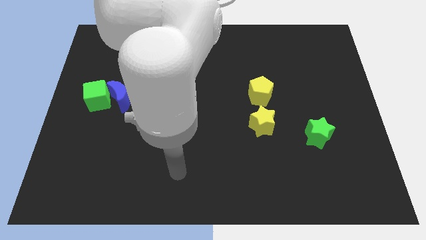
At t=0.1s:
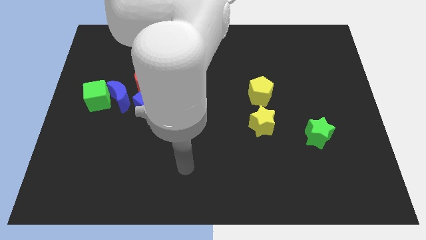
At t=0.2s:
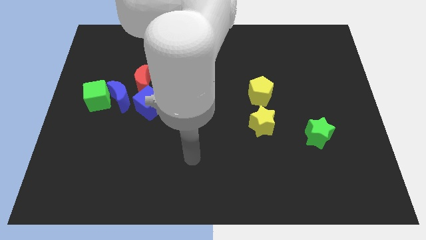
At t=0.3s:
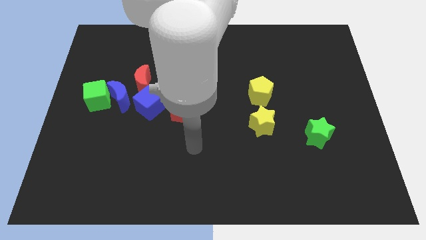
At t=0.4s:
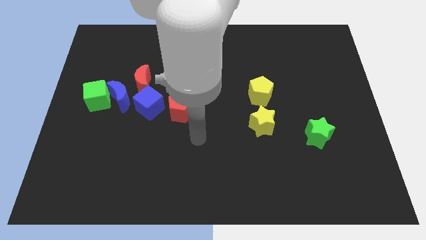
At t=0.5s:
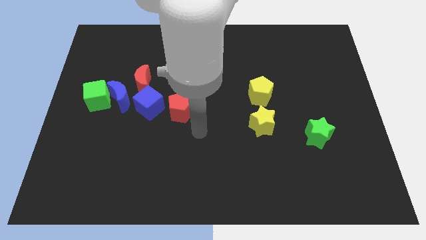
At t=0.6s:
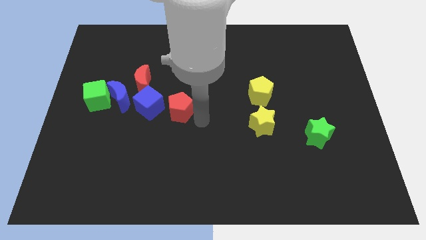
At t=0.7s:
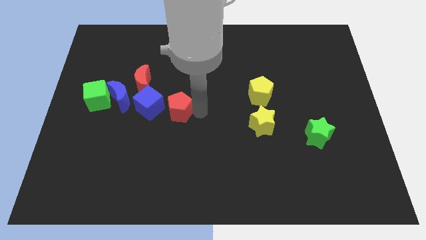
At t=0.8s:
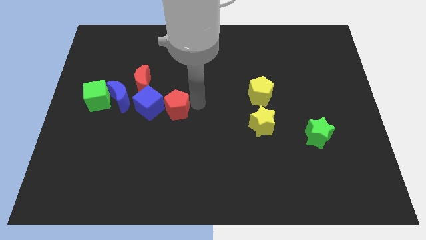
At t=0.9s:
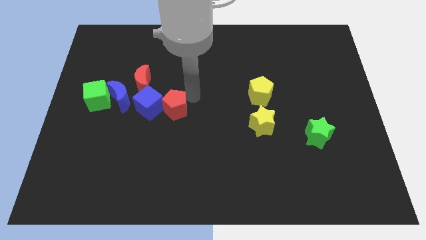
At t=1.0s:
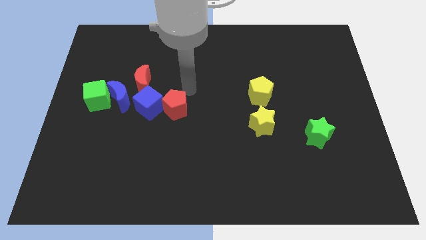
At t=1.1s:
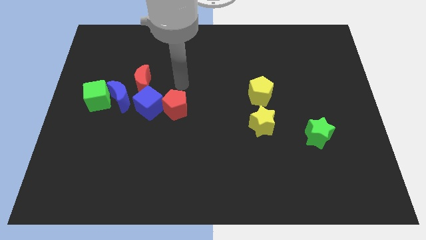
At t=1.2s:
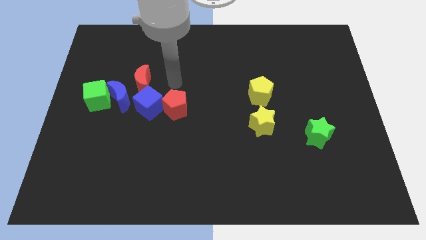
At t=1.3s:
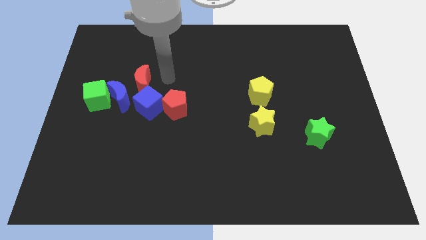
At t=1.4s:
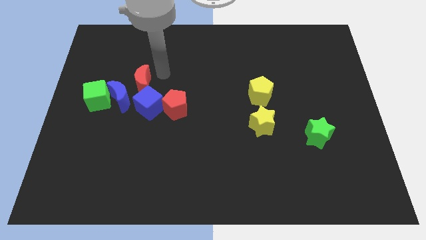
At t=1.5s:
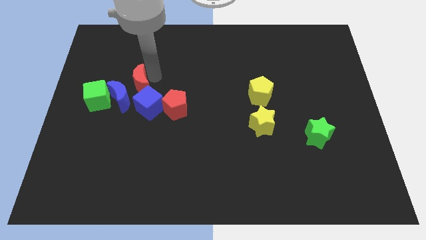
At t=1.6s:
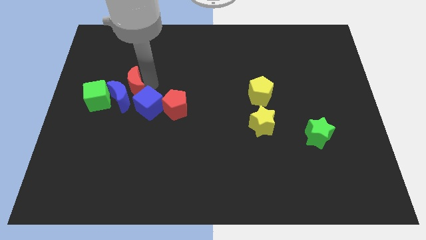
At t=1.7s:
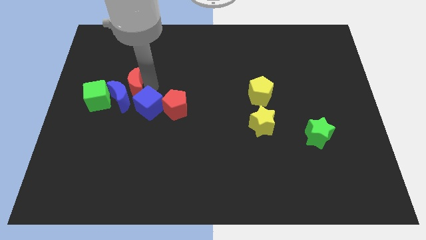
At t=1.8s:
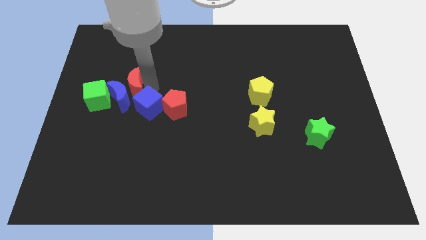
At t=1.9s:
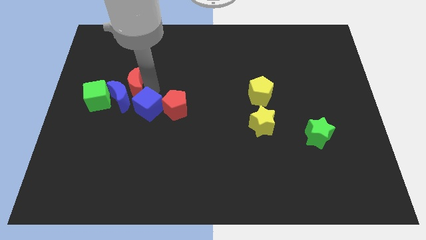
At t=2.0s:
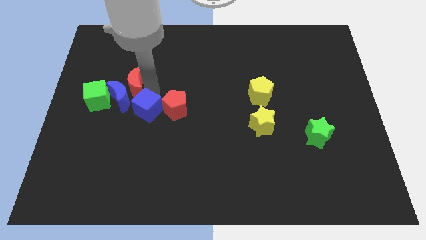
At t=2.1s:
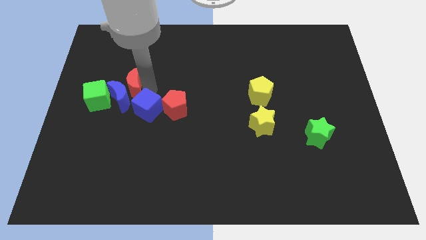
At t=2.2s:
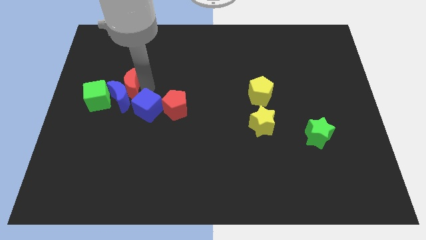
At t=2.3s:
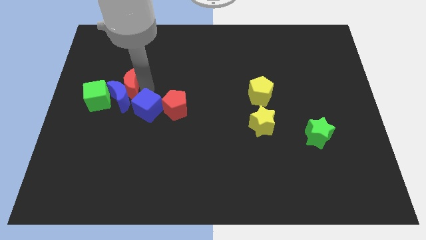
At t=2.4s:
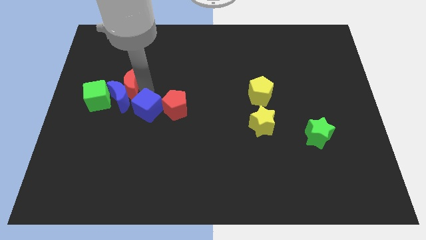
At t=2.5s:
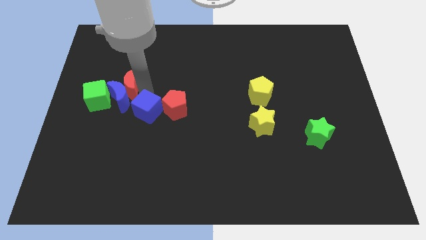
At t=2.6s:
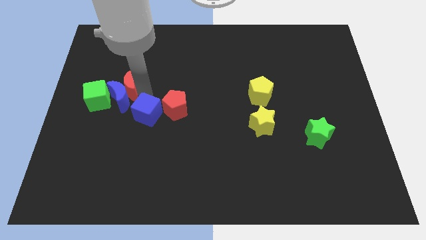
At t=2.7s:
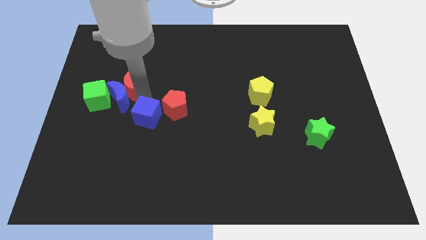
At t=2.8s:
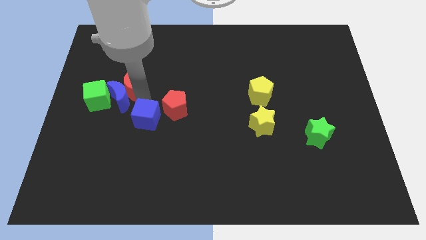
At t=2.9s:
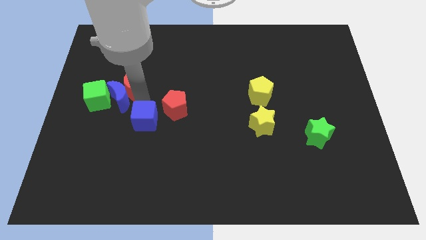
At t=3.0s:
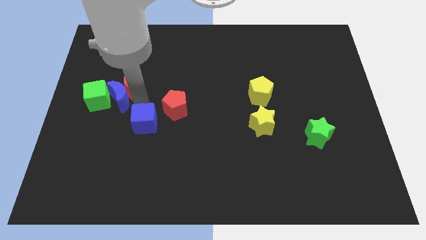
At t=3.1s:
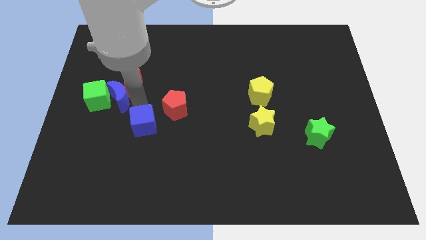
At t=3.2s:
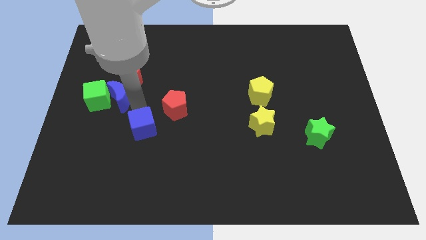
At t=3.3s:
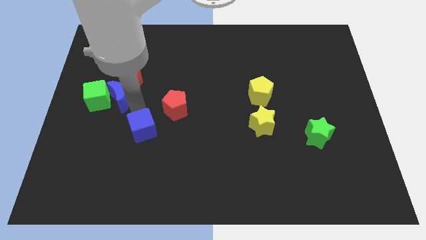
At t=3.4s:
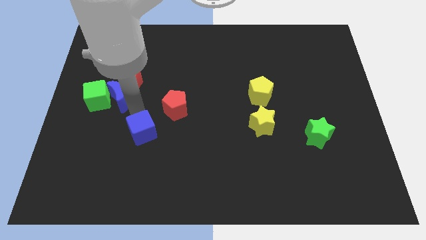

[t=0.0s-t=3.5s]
push the blue cube down a little bit

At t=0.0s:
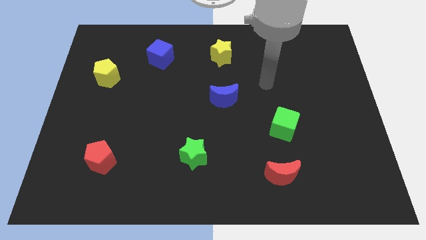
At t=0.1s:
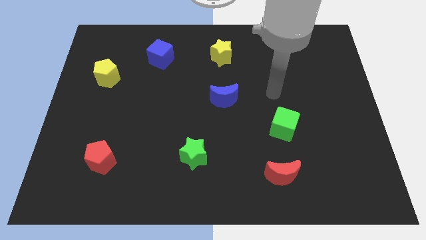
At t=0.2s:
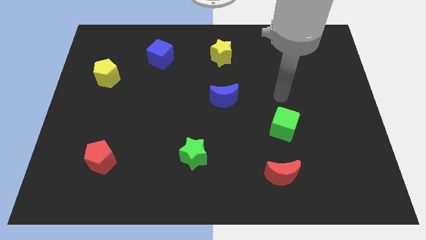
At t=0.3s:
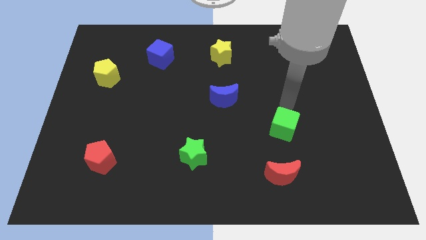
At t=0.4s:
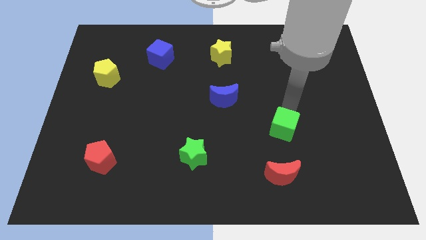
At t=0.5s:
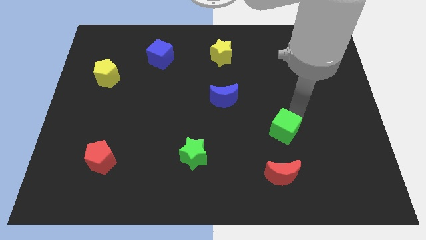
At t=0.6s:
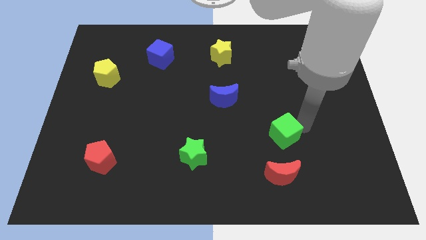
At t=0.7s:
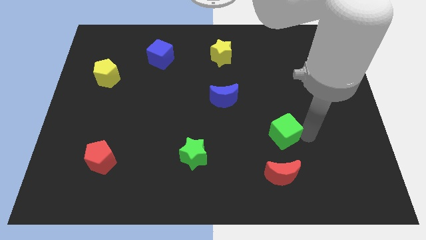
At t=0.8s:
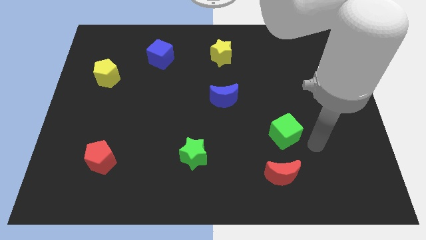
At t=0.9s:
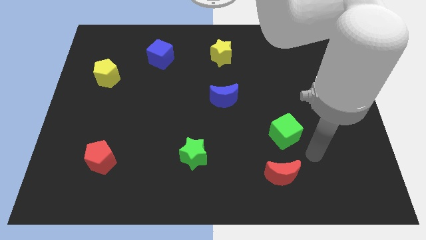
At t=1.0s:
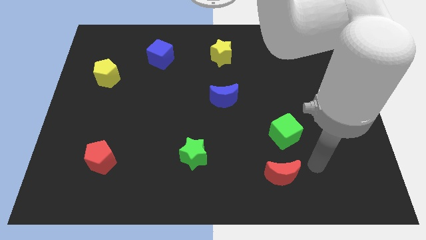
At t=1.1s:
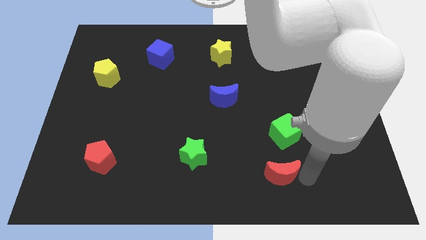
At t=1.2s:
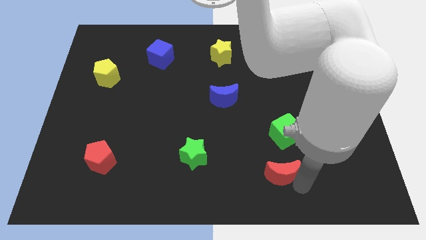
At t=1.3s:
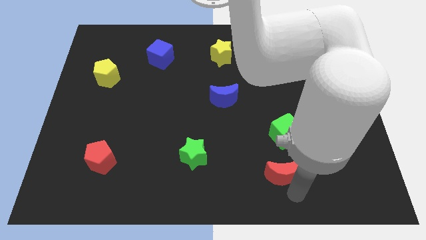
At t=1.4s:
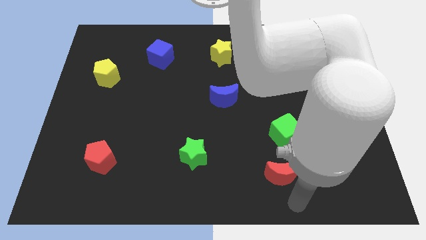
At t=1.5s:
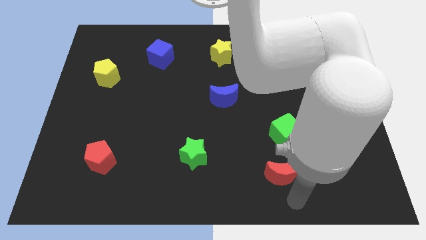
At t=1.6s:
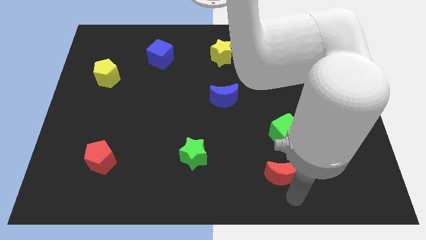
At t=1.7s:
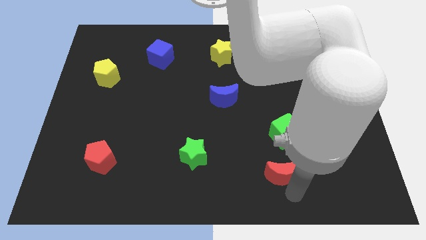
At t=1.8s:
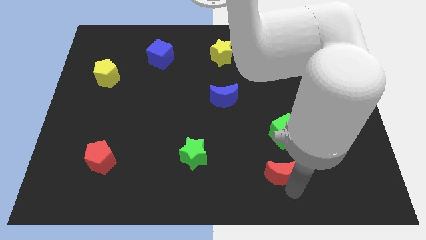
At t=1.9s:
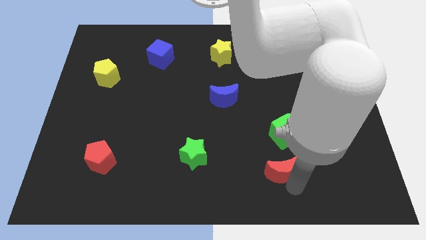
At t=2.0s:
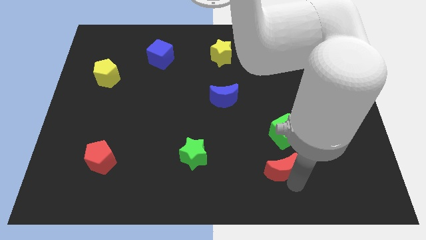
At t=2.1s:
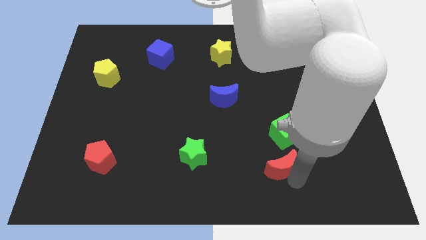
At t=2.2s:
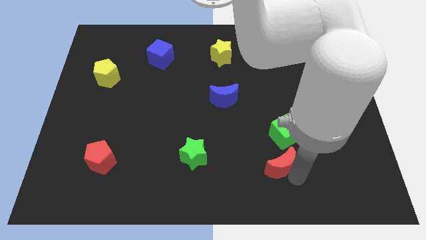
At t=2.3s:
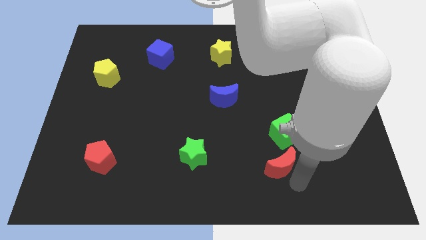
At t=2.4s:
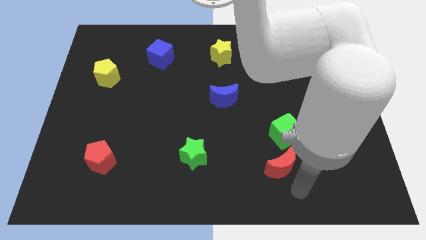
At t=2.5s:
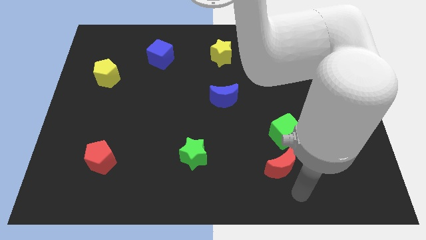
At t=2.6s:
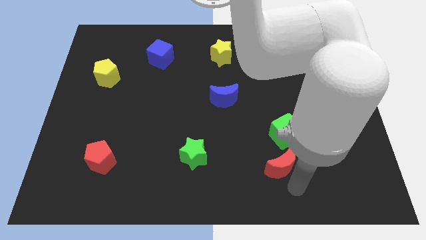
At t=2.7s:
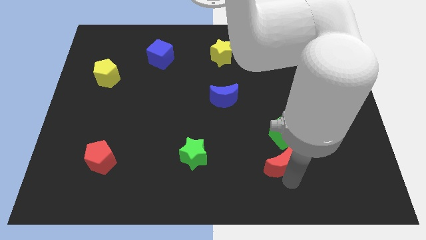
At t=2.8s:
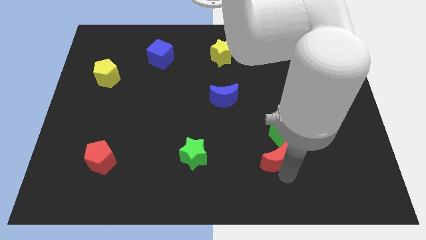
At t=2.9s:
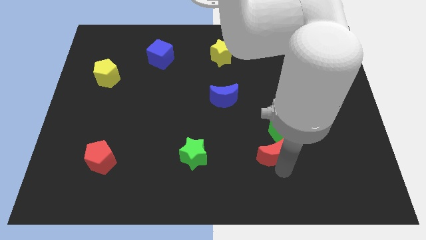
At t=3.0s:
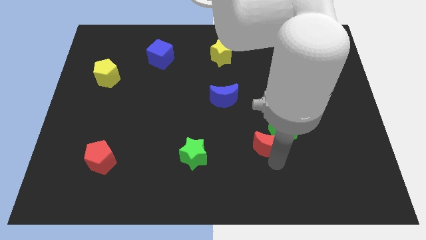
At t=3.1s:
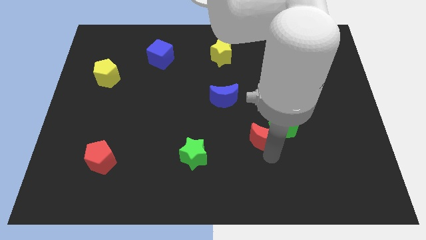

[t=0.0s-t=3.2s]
slightly move the red moon up

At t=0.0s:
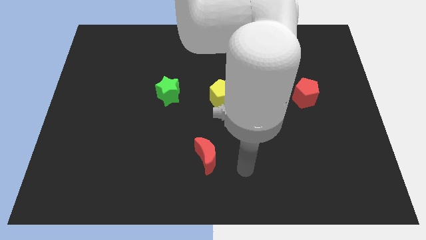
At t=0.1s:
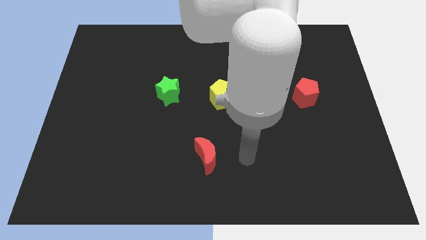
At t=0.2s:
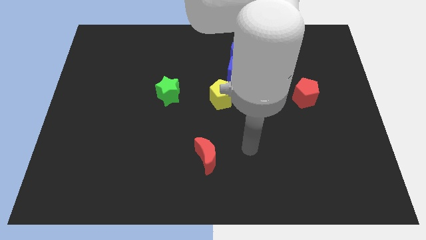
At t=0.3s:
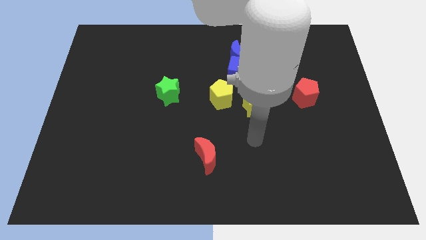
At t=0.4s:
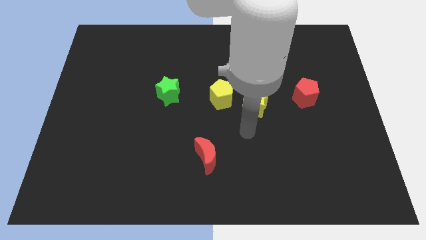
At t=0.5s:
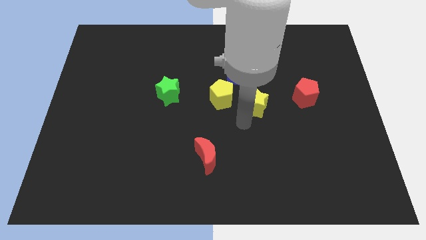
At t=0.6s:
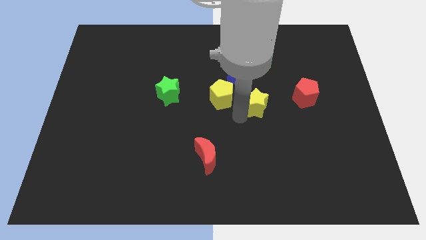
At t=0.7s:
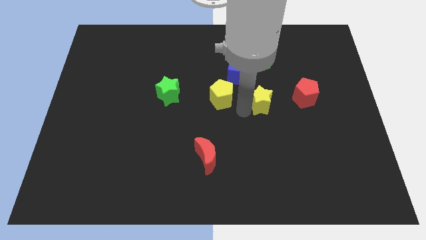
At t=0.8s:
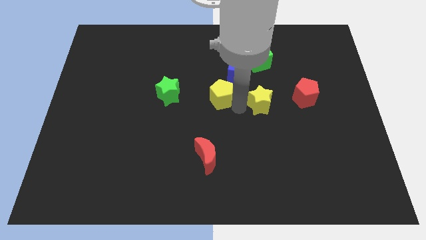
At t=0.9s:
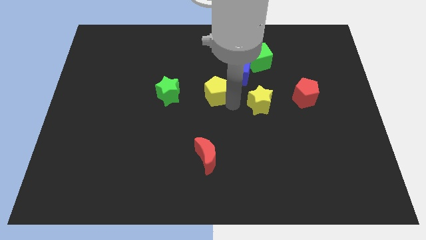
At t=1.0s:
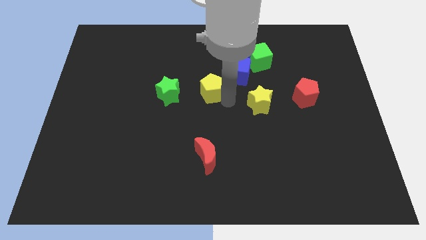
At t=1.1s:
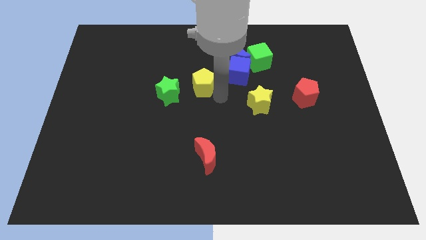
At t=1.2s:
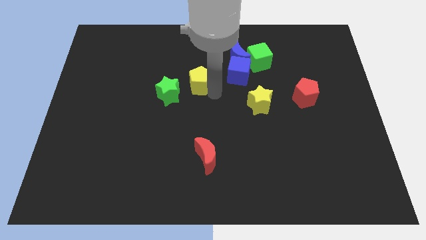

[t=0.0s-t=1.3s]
slide the yellow pentagon up and left diagonally a bit

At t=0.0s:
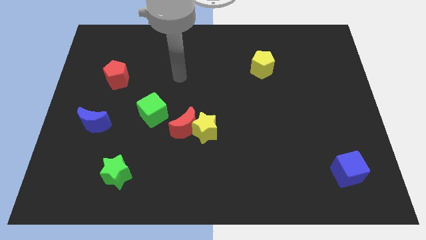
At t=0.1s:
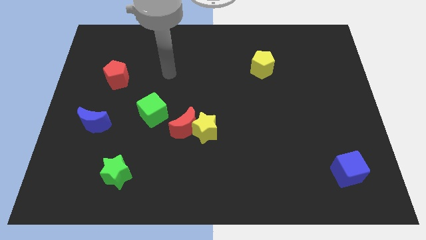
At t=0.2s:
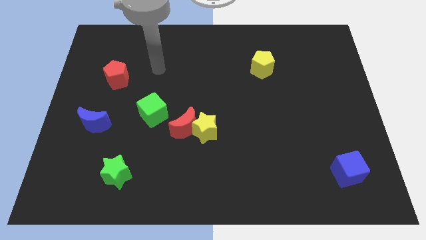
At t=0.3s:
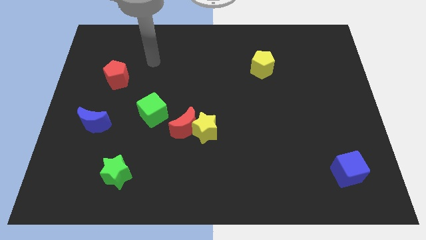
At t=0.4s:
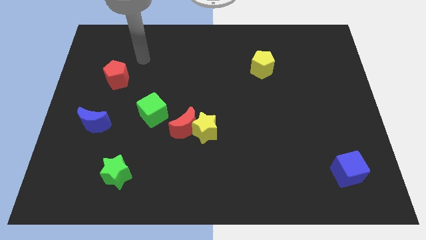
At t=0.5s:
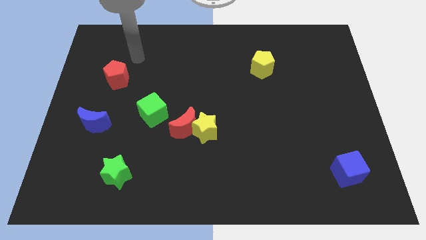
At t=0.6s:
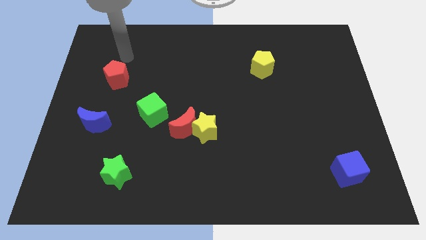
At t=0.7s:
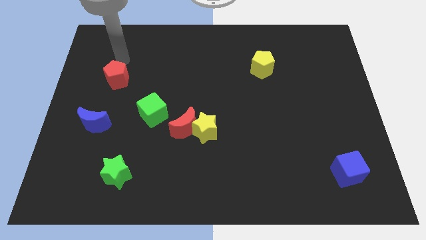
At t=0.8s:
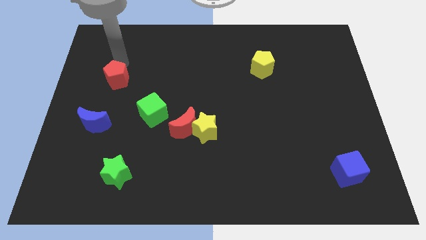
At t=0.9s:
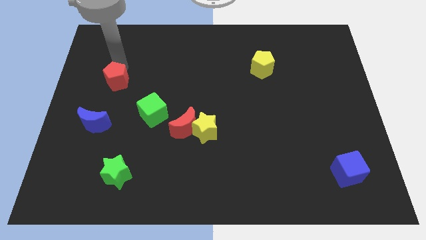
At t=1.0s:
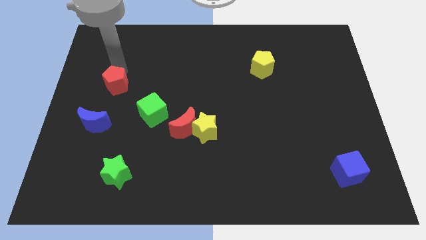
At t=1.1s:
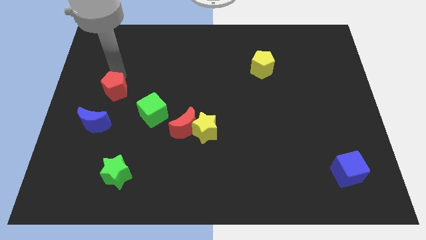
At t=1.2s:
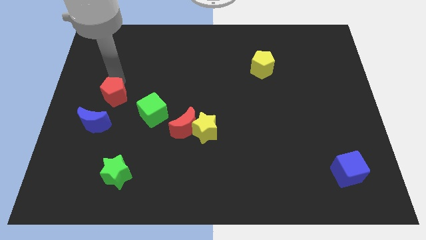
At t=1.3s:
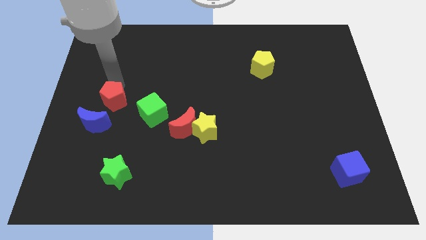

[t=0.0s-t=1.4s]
push the red pentagon a little downwards
